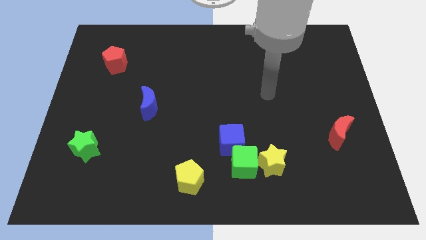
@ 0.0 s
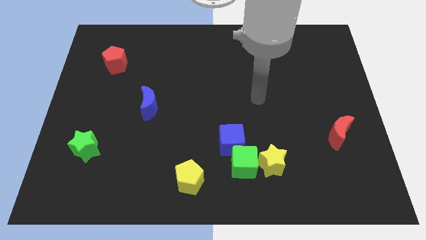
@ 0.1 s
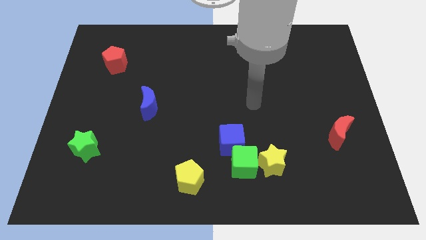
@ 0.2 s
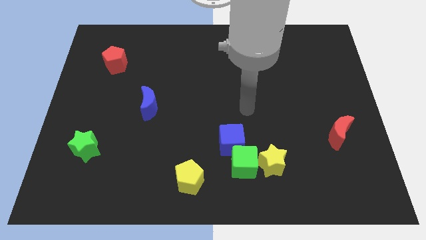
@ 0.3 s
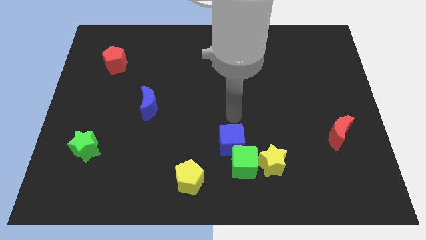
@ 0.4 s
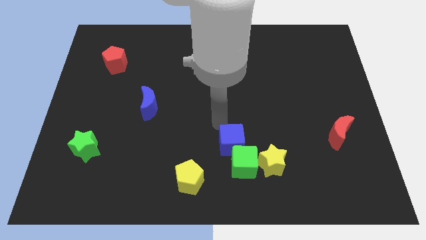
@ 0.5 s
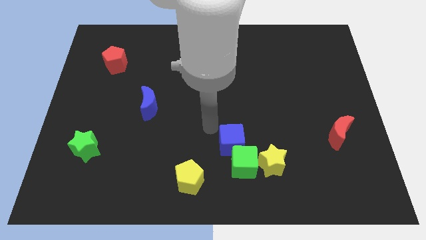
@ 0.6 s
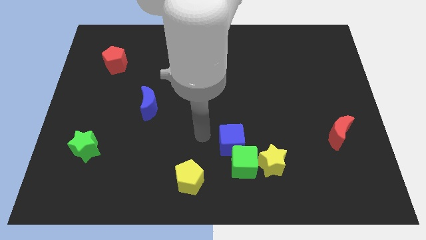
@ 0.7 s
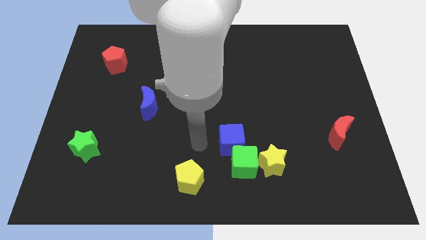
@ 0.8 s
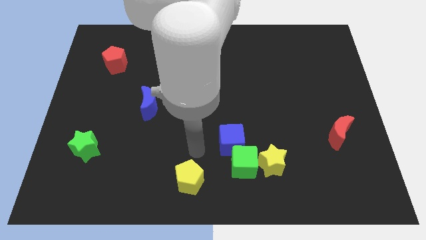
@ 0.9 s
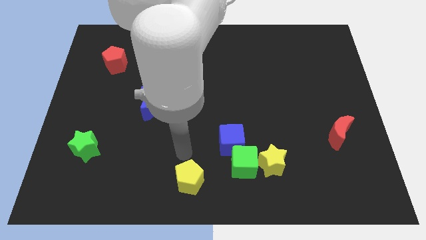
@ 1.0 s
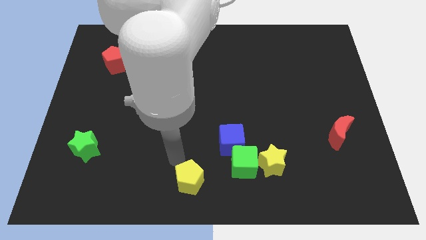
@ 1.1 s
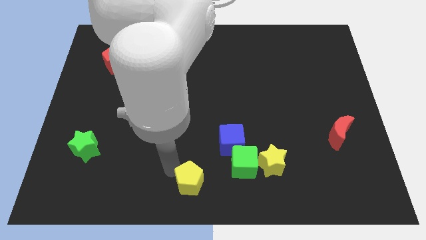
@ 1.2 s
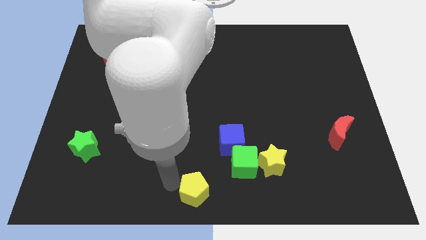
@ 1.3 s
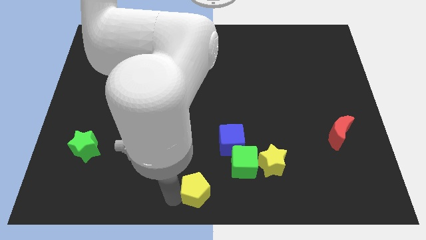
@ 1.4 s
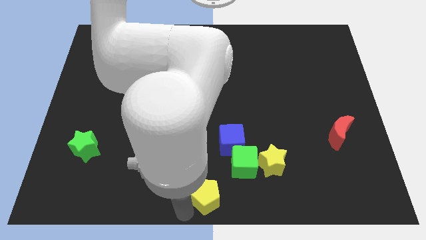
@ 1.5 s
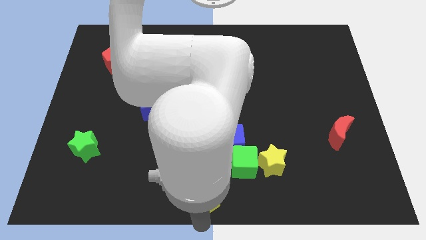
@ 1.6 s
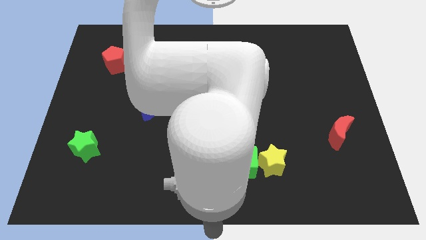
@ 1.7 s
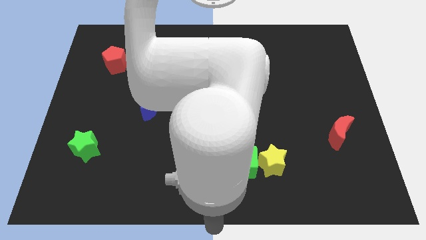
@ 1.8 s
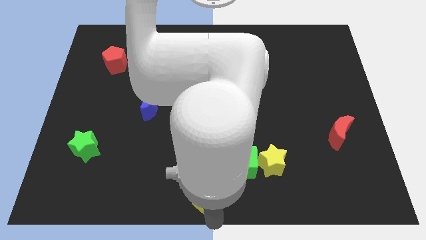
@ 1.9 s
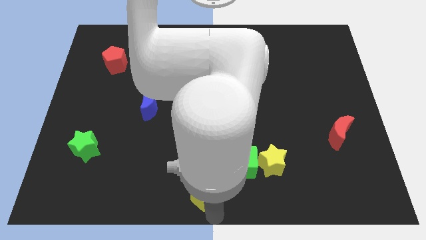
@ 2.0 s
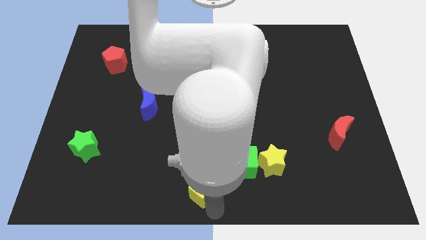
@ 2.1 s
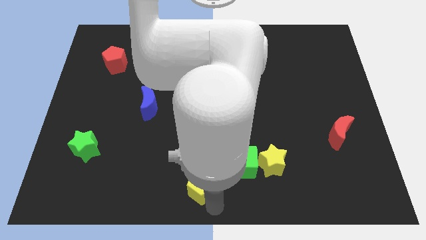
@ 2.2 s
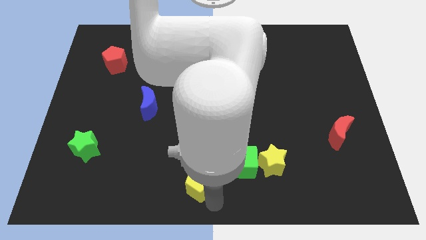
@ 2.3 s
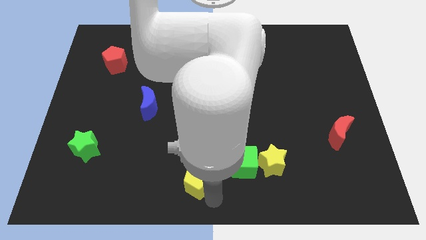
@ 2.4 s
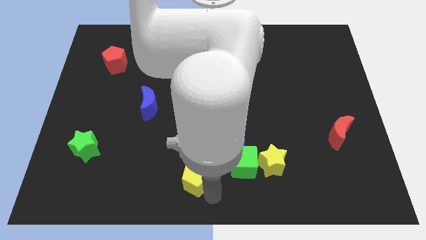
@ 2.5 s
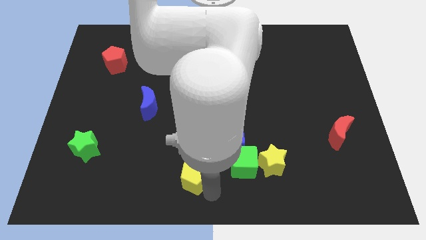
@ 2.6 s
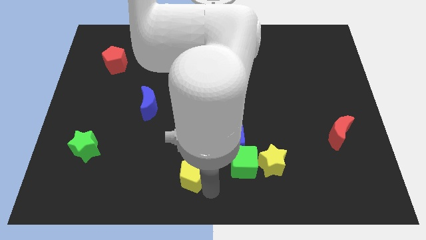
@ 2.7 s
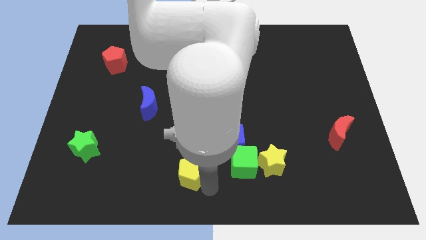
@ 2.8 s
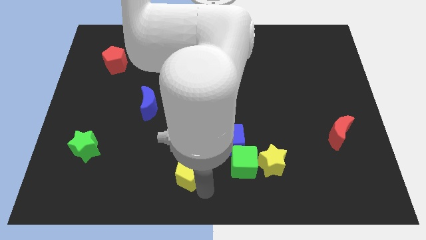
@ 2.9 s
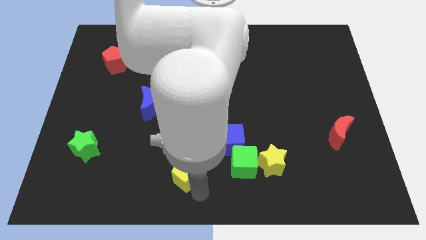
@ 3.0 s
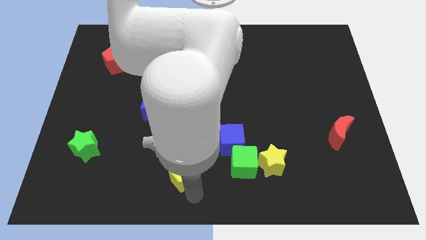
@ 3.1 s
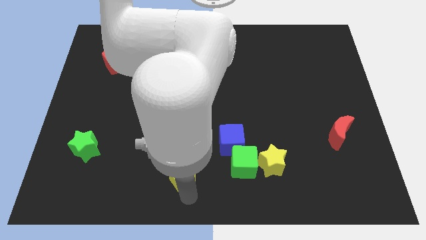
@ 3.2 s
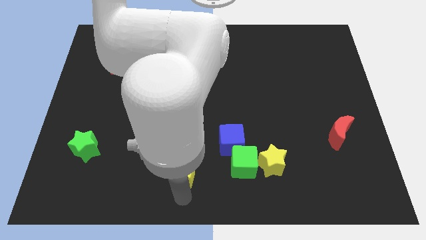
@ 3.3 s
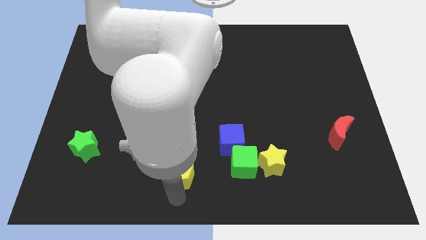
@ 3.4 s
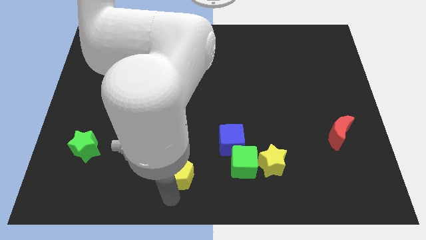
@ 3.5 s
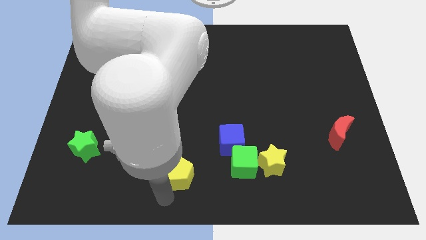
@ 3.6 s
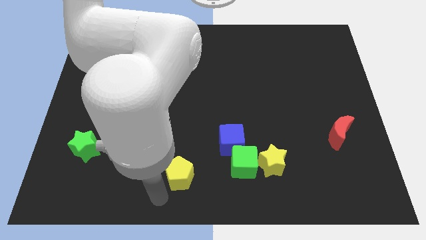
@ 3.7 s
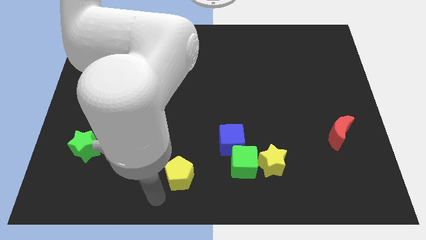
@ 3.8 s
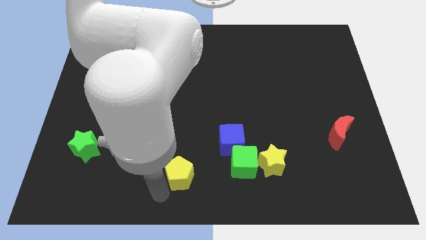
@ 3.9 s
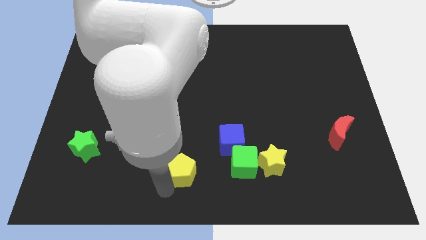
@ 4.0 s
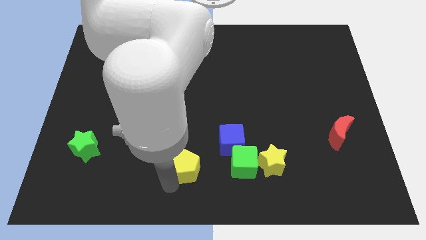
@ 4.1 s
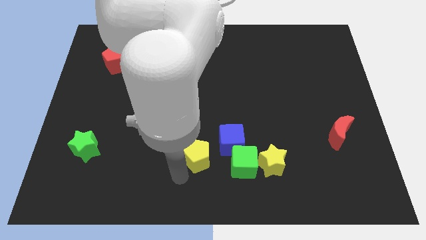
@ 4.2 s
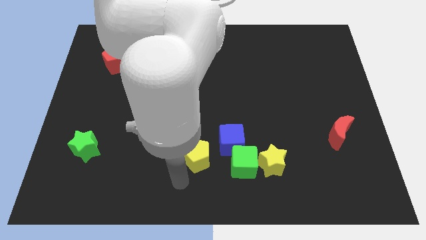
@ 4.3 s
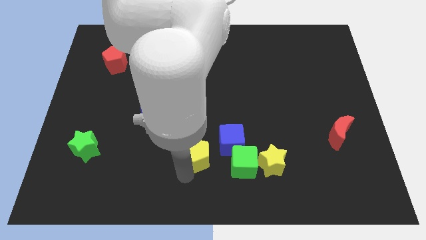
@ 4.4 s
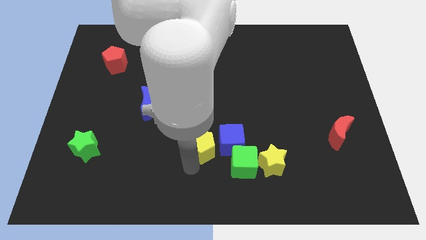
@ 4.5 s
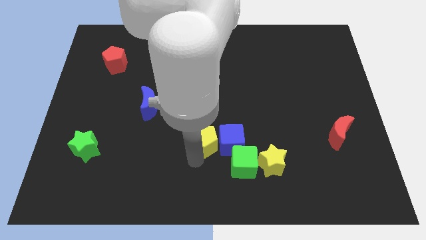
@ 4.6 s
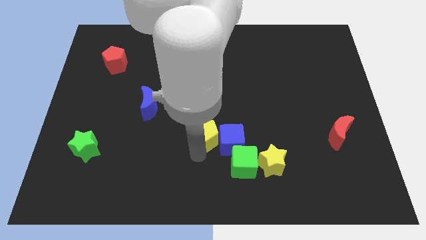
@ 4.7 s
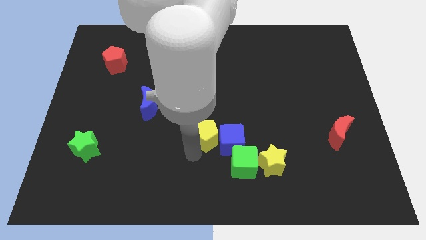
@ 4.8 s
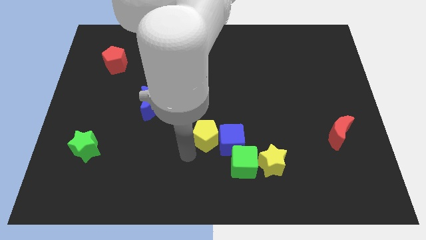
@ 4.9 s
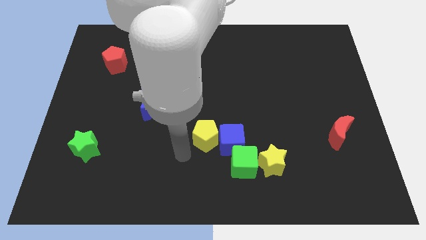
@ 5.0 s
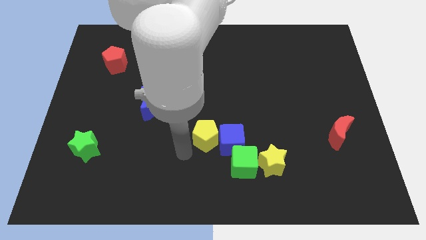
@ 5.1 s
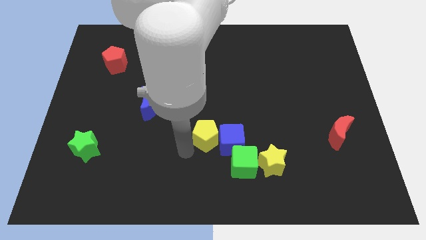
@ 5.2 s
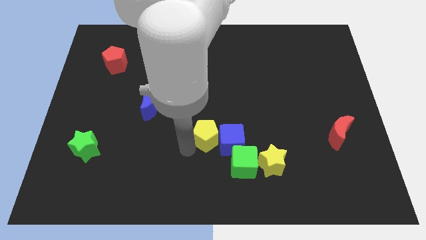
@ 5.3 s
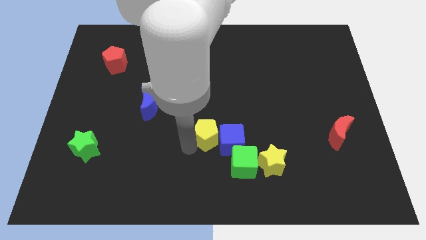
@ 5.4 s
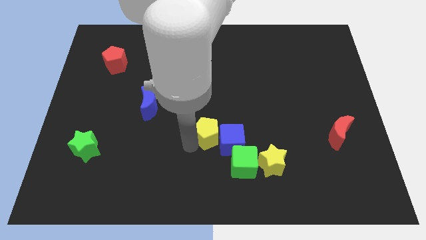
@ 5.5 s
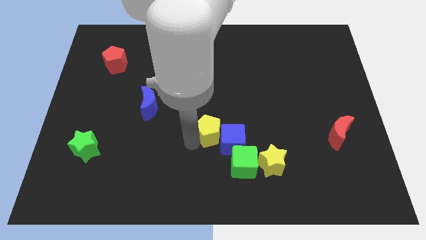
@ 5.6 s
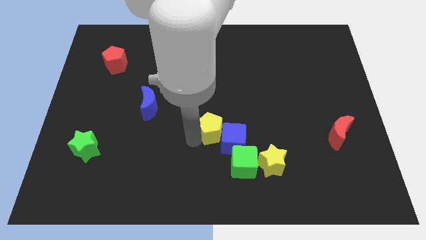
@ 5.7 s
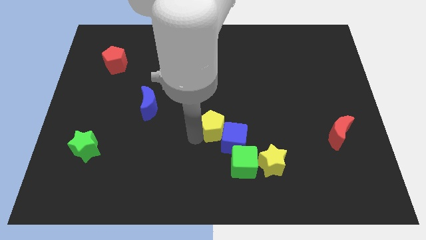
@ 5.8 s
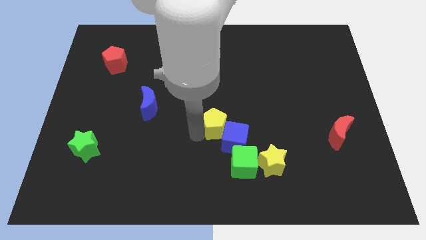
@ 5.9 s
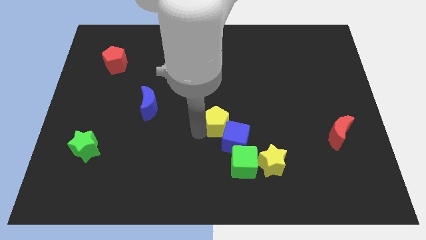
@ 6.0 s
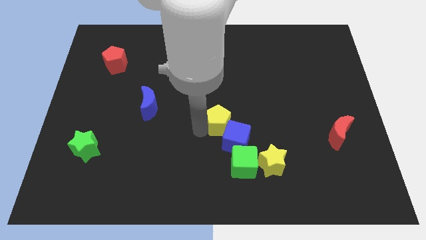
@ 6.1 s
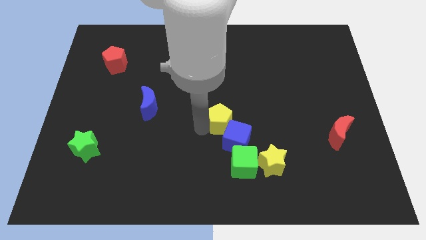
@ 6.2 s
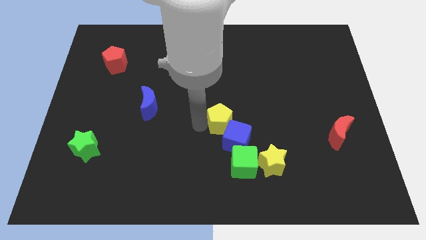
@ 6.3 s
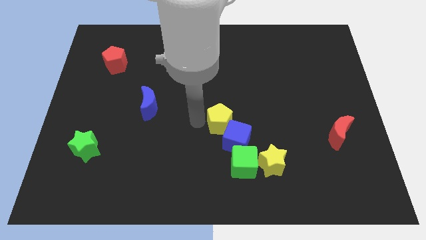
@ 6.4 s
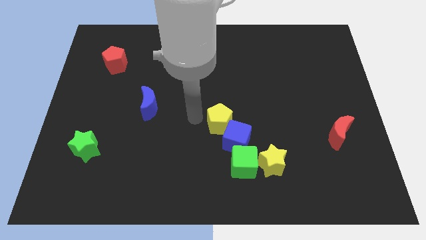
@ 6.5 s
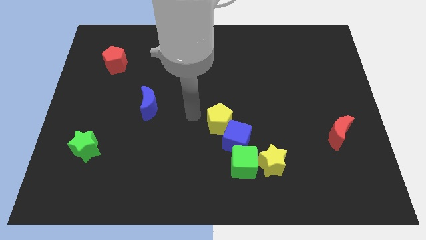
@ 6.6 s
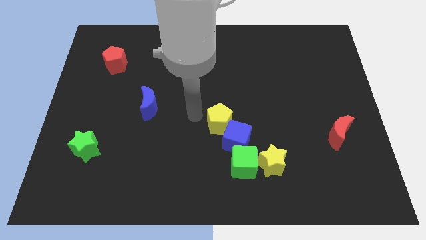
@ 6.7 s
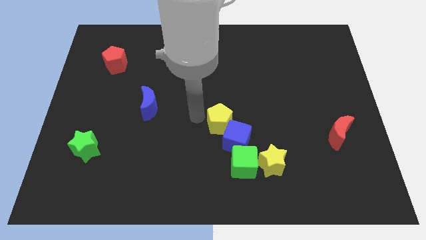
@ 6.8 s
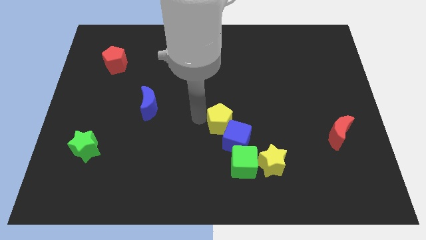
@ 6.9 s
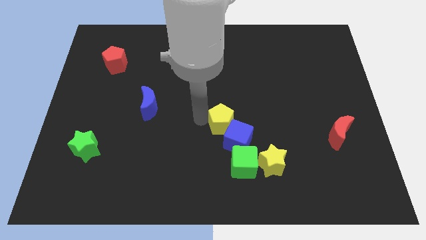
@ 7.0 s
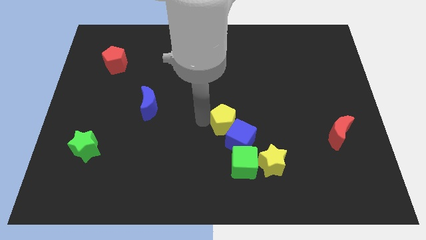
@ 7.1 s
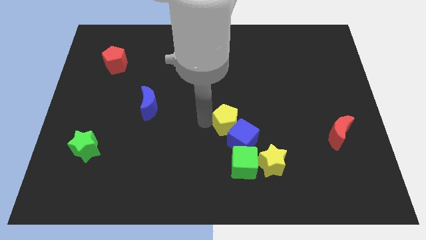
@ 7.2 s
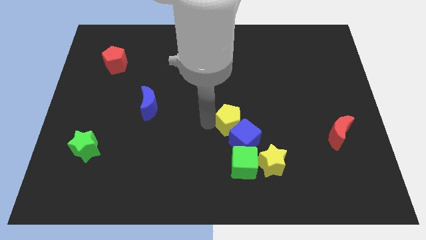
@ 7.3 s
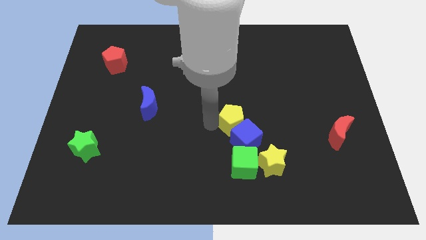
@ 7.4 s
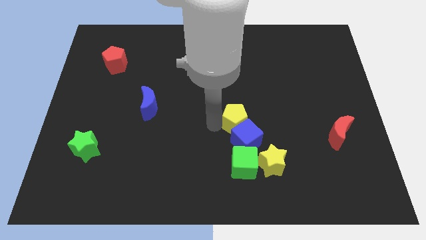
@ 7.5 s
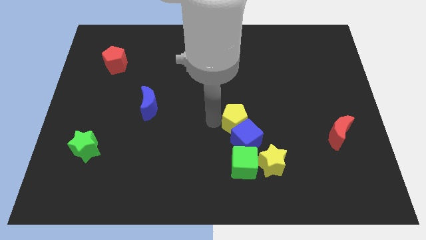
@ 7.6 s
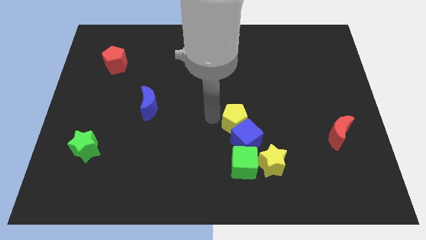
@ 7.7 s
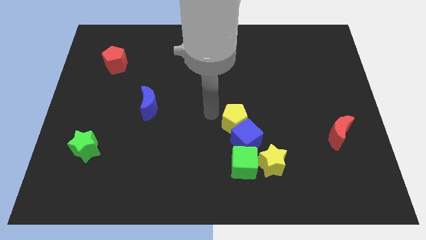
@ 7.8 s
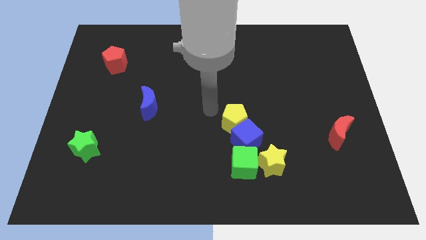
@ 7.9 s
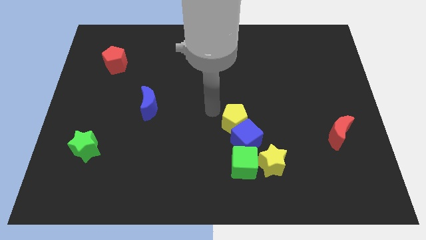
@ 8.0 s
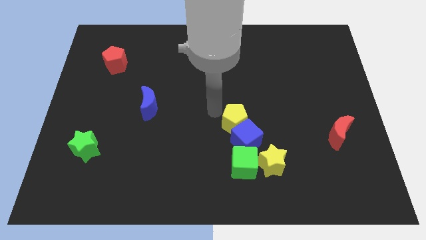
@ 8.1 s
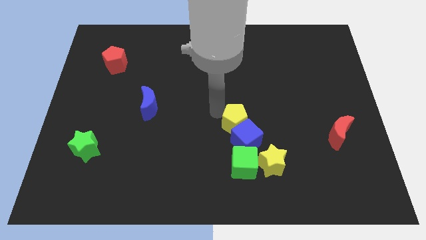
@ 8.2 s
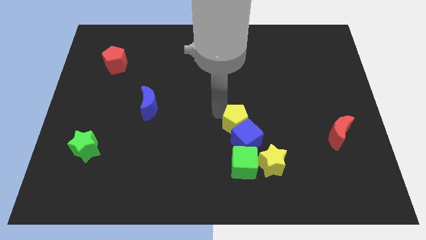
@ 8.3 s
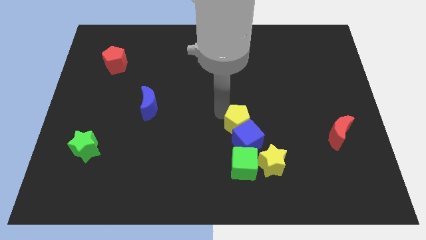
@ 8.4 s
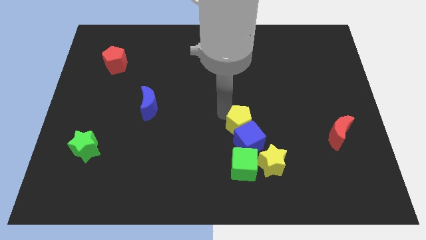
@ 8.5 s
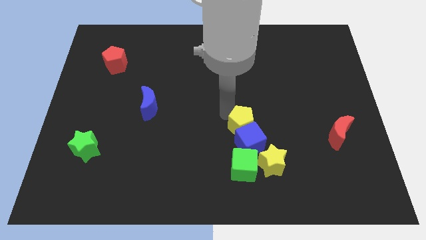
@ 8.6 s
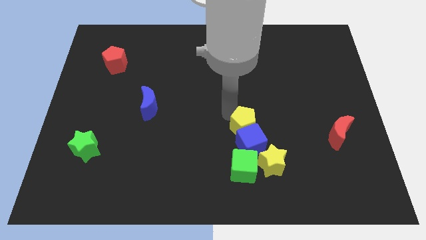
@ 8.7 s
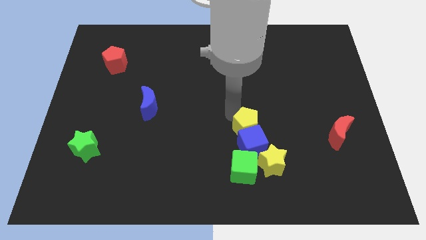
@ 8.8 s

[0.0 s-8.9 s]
push the yellow pentagon above the yellow star
